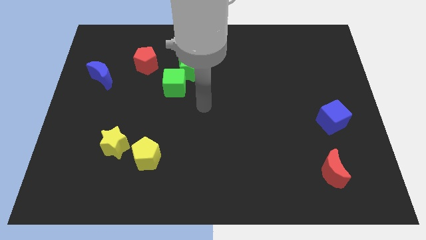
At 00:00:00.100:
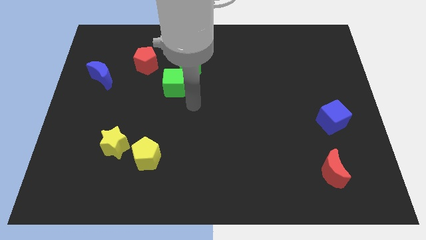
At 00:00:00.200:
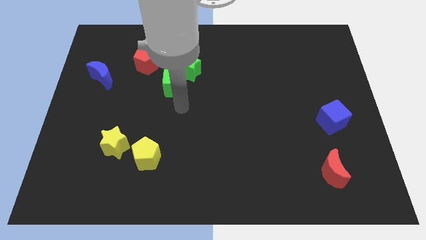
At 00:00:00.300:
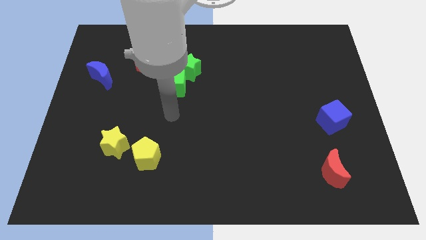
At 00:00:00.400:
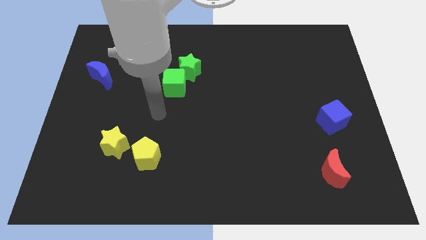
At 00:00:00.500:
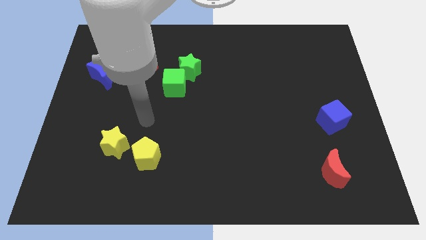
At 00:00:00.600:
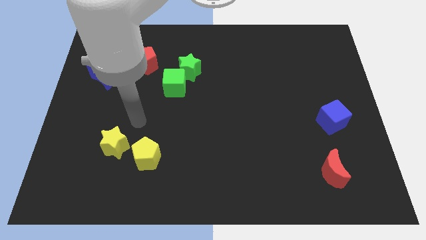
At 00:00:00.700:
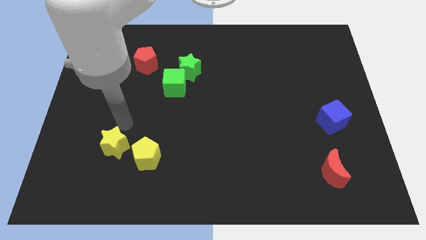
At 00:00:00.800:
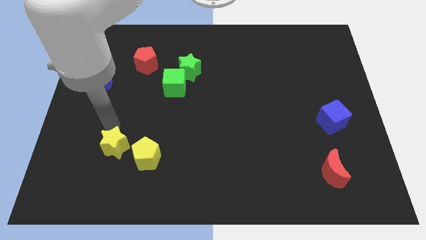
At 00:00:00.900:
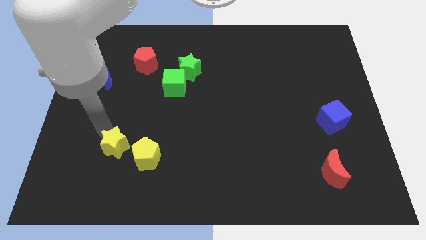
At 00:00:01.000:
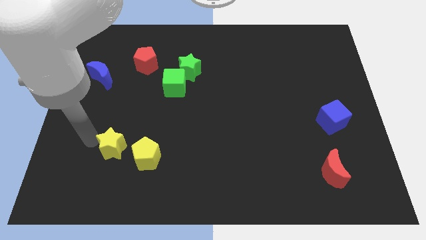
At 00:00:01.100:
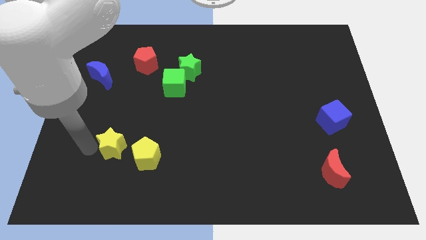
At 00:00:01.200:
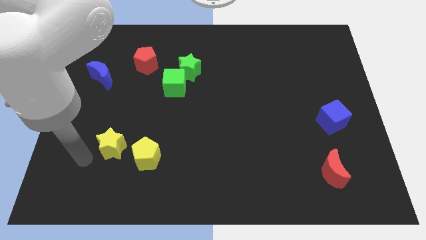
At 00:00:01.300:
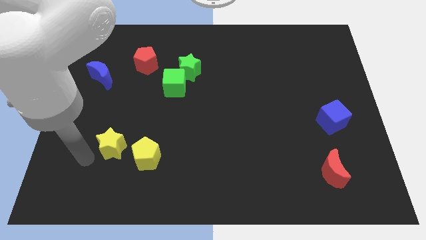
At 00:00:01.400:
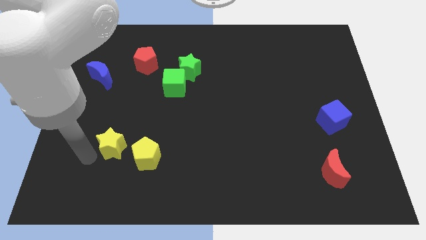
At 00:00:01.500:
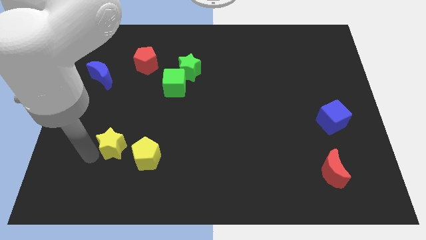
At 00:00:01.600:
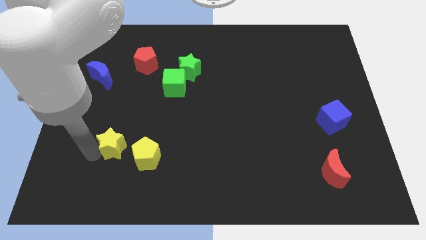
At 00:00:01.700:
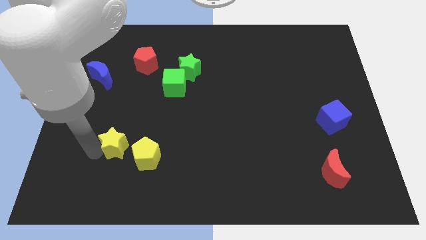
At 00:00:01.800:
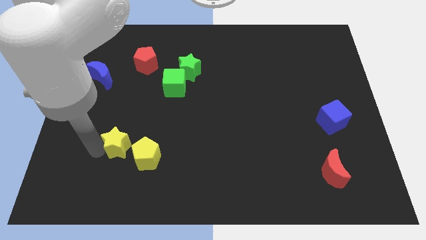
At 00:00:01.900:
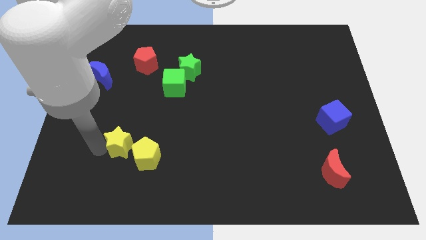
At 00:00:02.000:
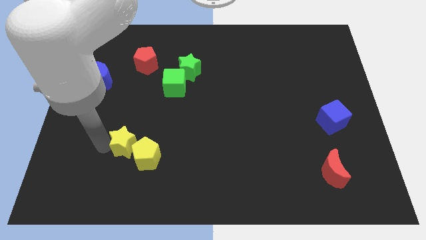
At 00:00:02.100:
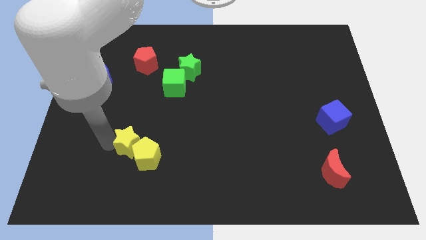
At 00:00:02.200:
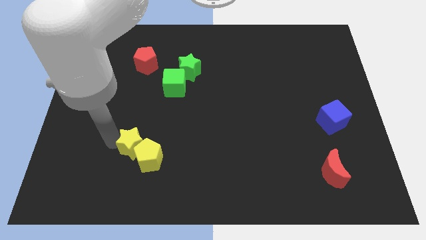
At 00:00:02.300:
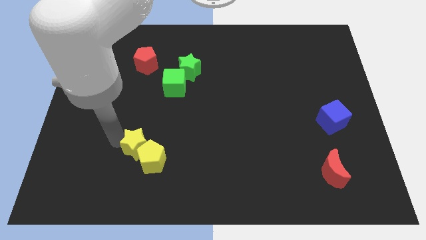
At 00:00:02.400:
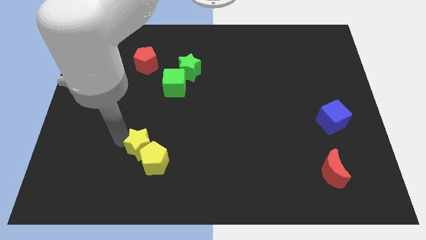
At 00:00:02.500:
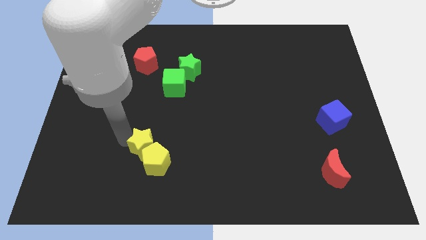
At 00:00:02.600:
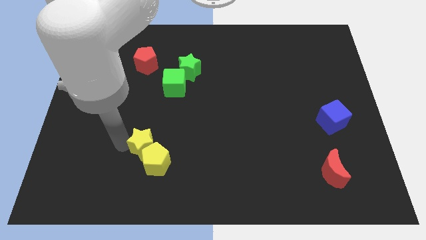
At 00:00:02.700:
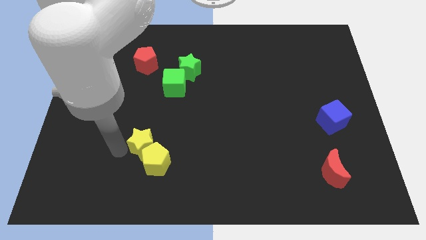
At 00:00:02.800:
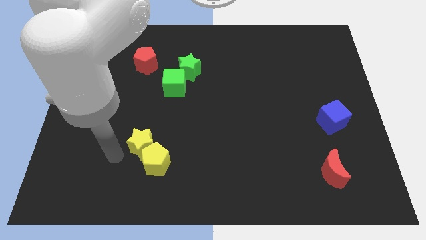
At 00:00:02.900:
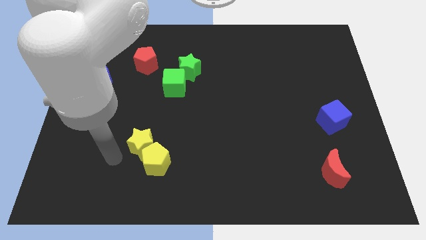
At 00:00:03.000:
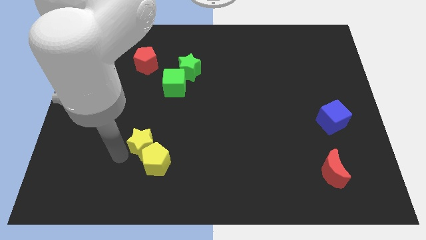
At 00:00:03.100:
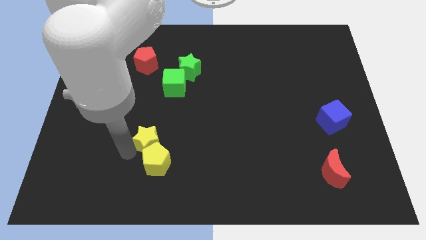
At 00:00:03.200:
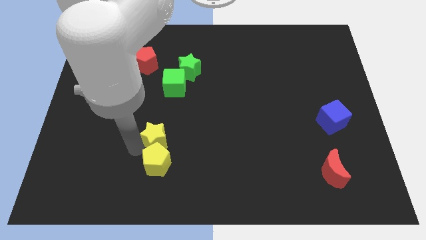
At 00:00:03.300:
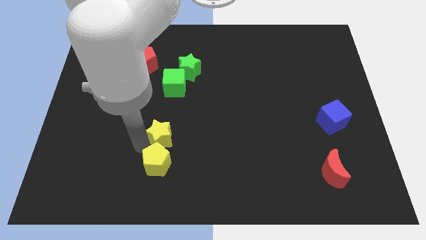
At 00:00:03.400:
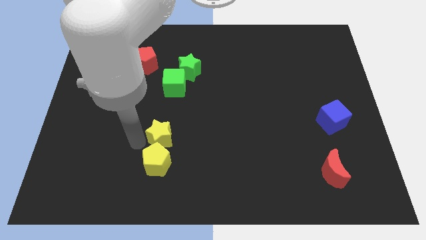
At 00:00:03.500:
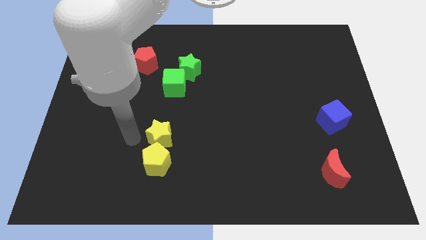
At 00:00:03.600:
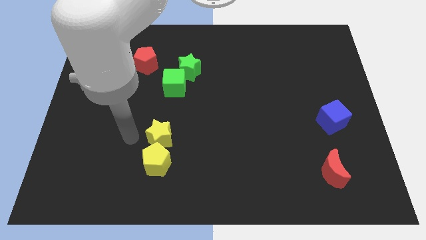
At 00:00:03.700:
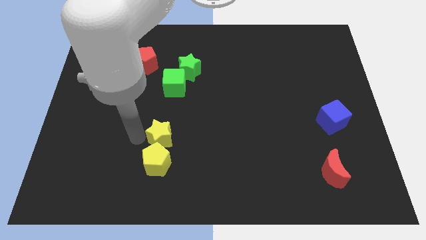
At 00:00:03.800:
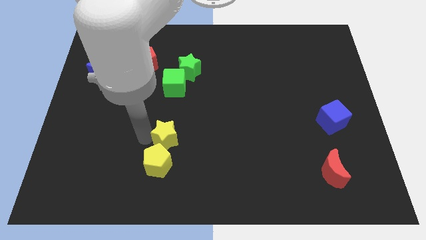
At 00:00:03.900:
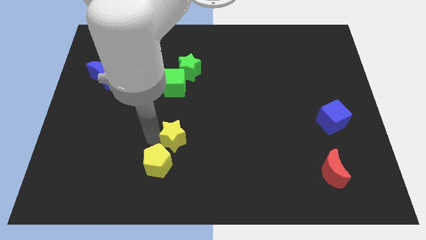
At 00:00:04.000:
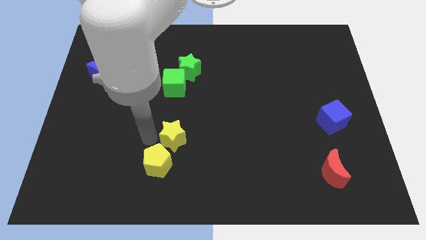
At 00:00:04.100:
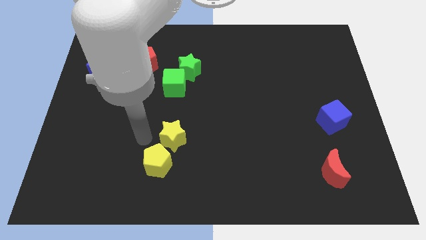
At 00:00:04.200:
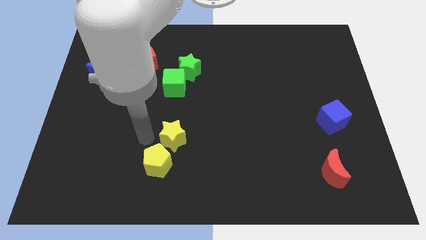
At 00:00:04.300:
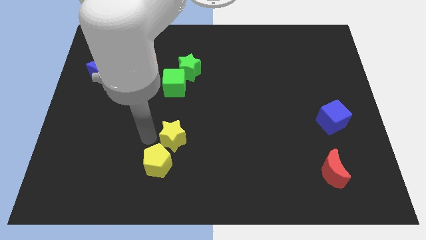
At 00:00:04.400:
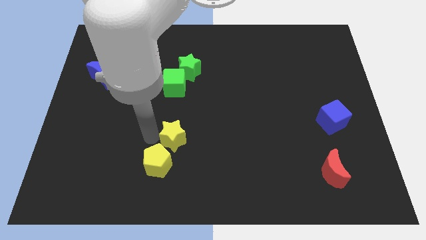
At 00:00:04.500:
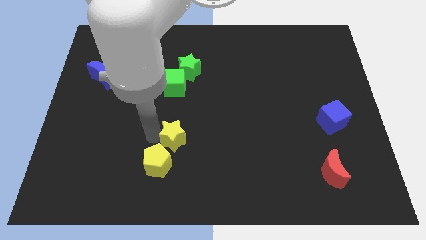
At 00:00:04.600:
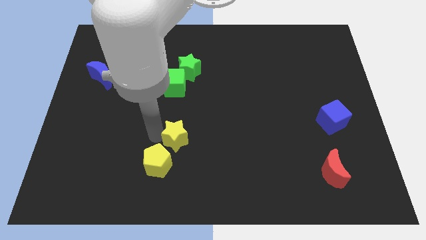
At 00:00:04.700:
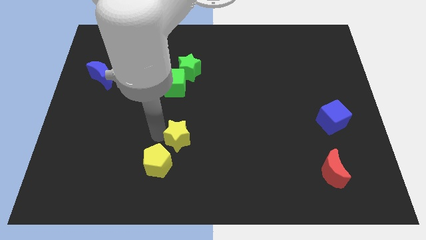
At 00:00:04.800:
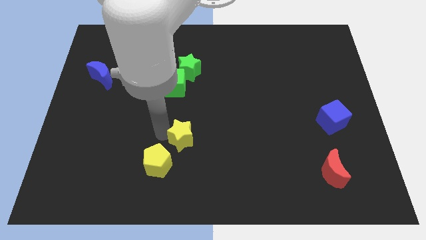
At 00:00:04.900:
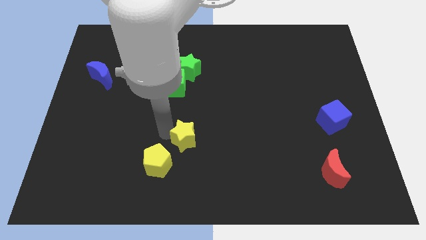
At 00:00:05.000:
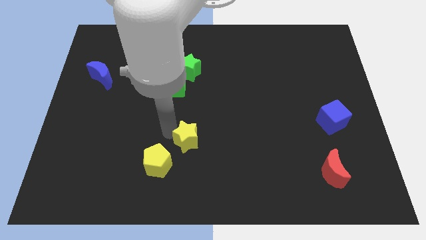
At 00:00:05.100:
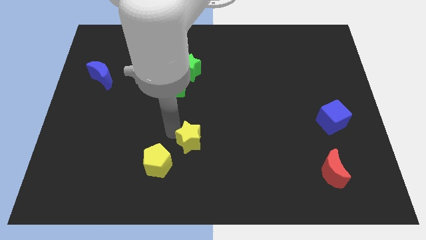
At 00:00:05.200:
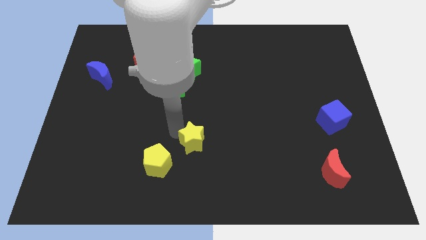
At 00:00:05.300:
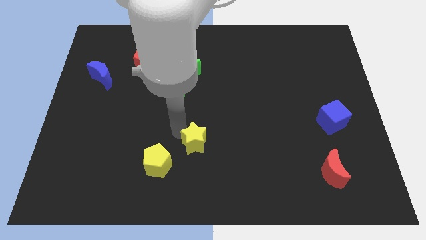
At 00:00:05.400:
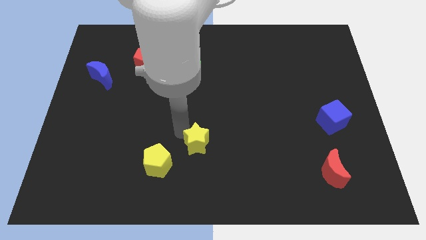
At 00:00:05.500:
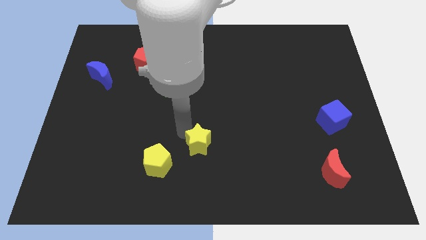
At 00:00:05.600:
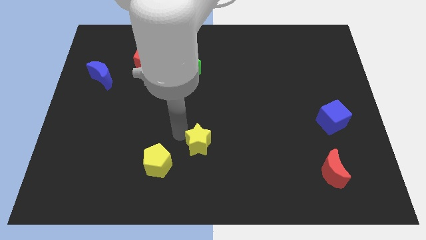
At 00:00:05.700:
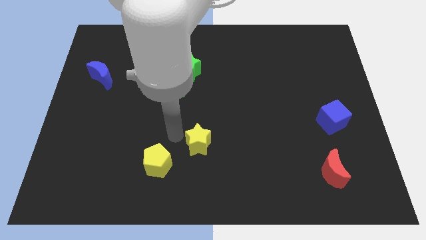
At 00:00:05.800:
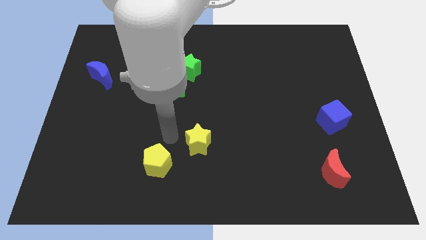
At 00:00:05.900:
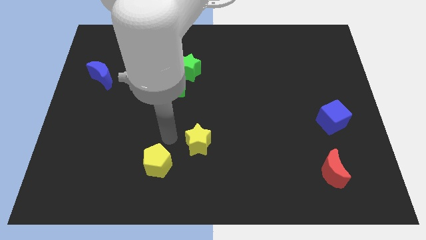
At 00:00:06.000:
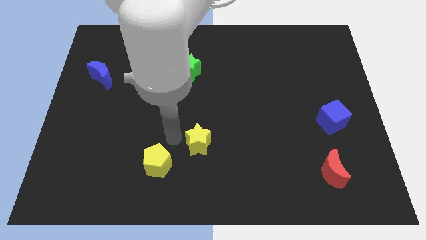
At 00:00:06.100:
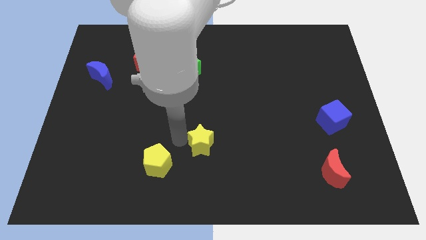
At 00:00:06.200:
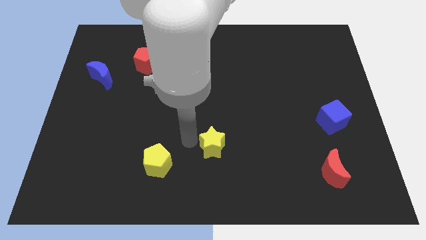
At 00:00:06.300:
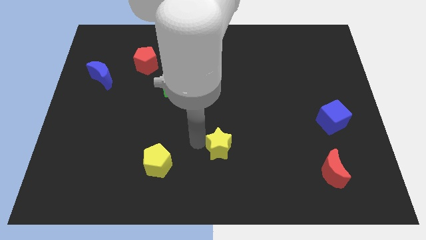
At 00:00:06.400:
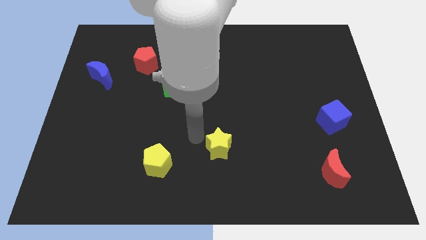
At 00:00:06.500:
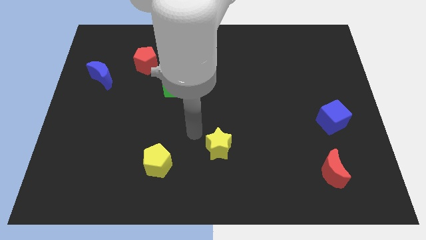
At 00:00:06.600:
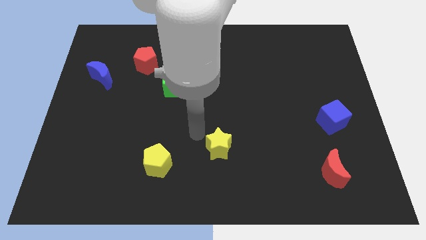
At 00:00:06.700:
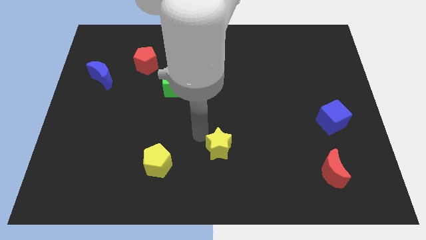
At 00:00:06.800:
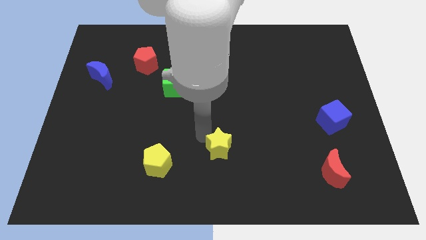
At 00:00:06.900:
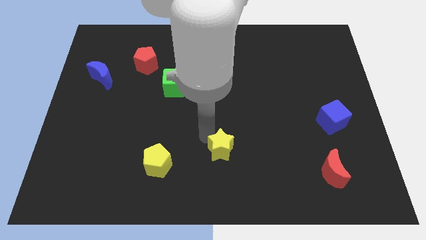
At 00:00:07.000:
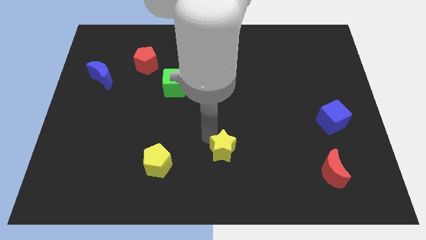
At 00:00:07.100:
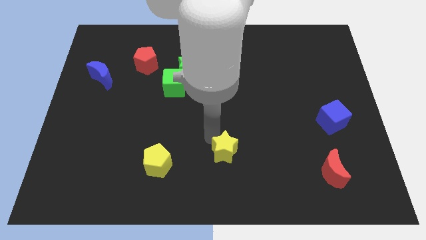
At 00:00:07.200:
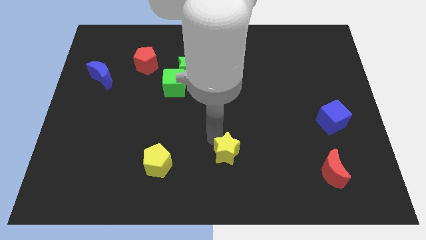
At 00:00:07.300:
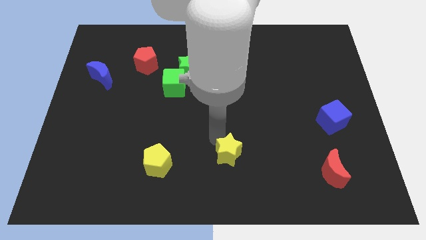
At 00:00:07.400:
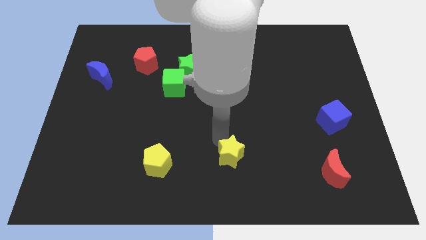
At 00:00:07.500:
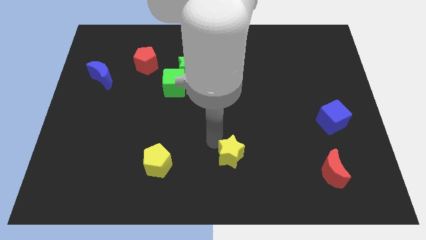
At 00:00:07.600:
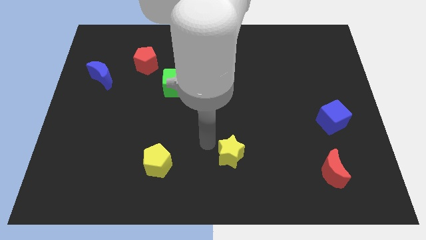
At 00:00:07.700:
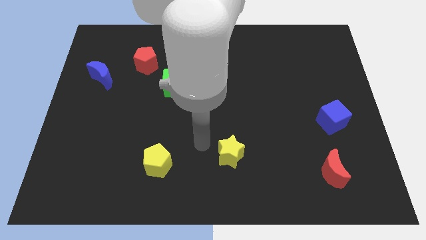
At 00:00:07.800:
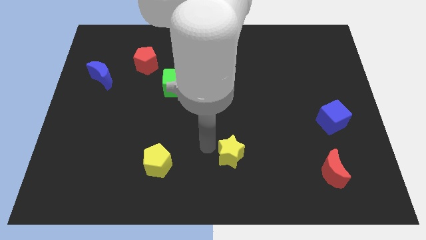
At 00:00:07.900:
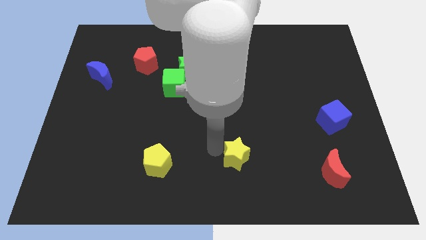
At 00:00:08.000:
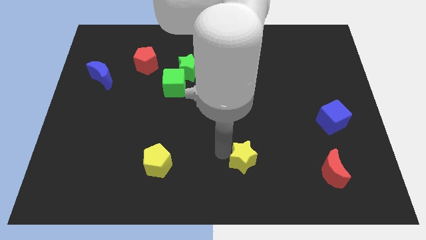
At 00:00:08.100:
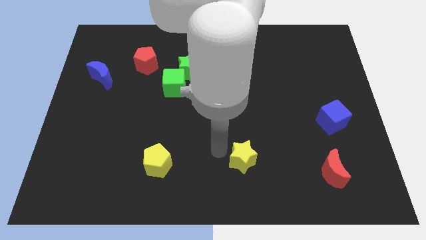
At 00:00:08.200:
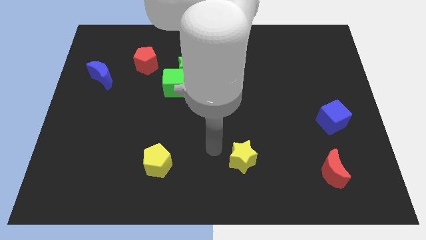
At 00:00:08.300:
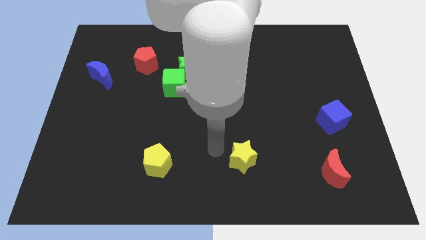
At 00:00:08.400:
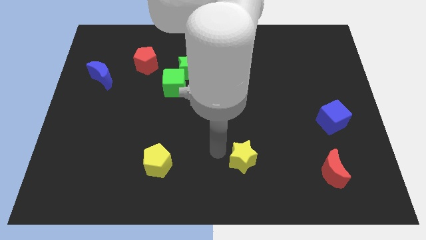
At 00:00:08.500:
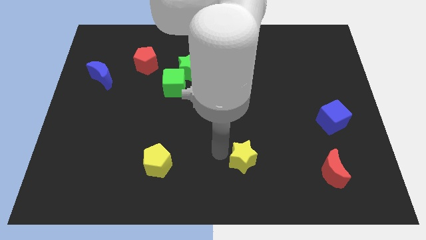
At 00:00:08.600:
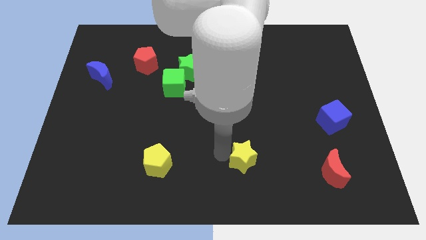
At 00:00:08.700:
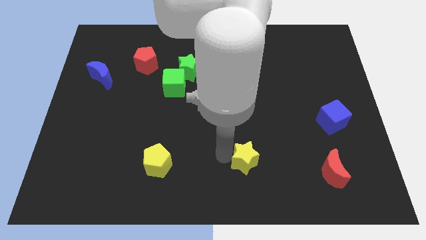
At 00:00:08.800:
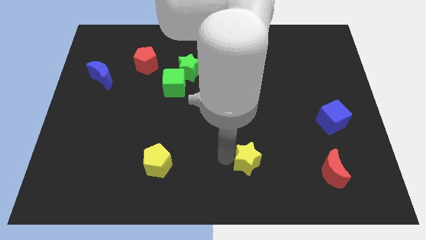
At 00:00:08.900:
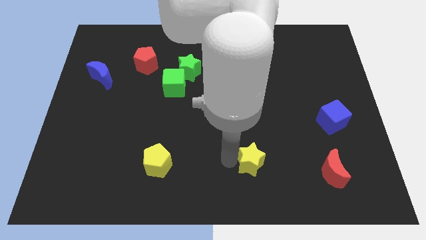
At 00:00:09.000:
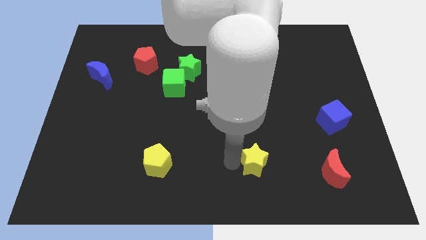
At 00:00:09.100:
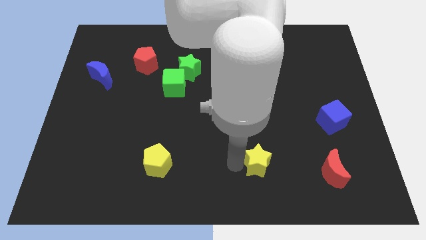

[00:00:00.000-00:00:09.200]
move the yellow star left of the red moon
